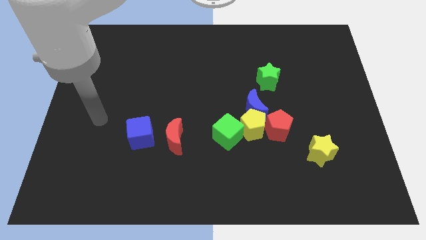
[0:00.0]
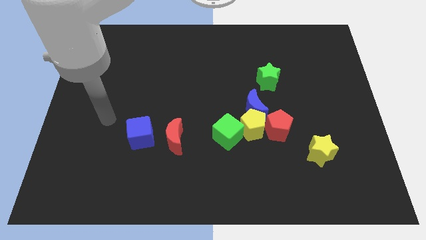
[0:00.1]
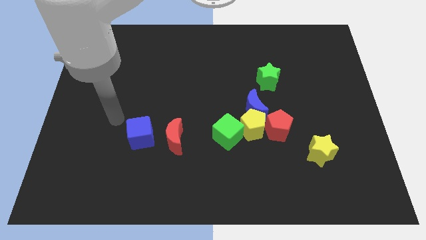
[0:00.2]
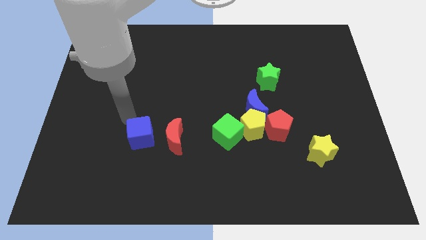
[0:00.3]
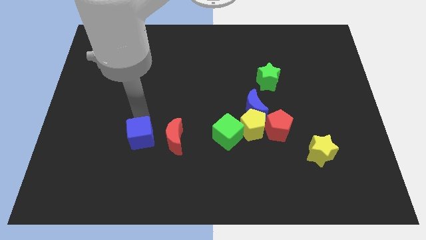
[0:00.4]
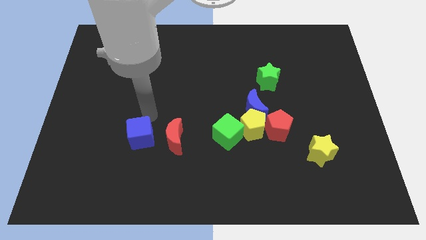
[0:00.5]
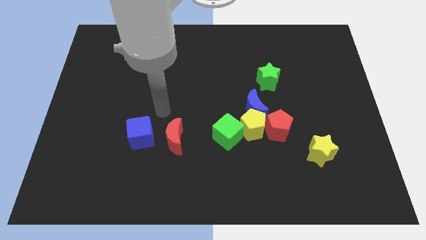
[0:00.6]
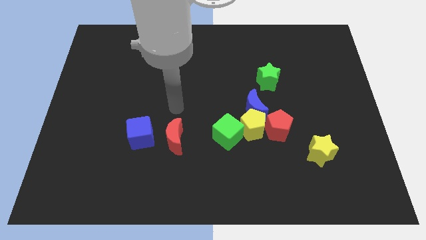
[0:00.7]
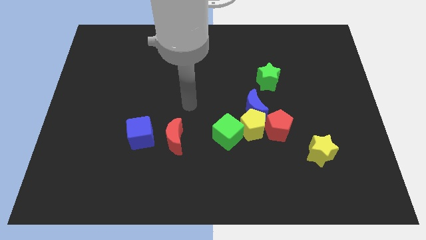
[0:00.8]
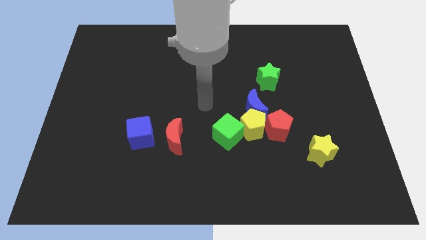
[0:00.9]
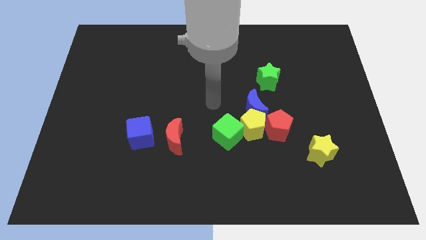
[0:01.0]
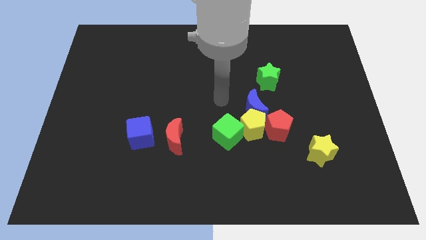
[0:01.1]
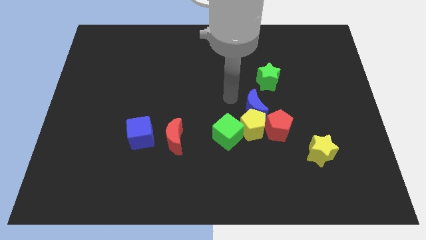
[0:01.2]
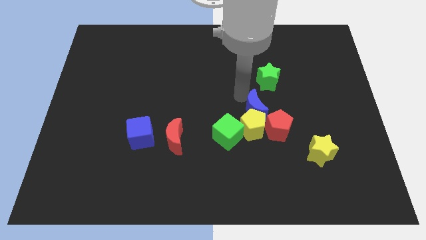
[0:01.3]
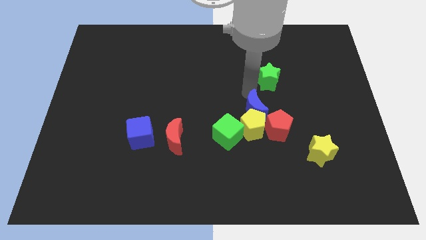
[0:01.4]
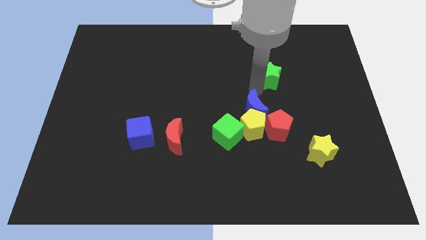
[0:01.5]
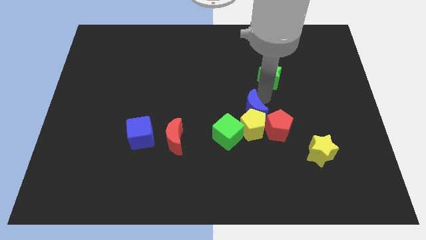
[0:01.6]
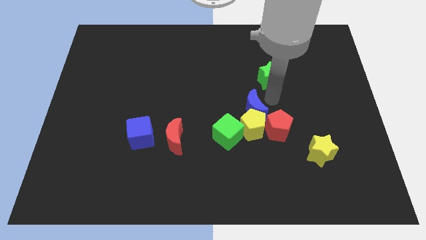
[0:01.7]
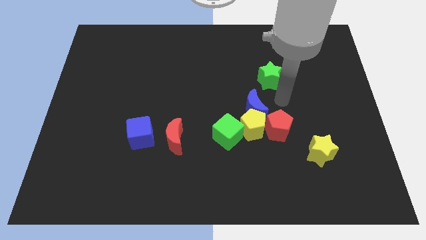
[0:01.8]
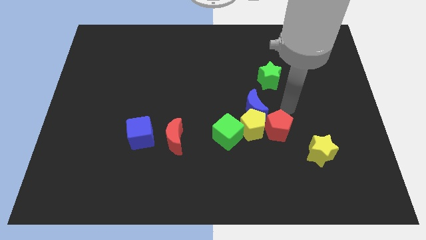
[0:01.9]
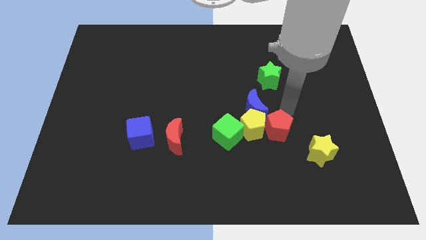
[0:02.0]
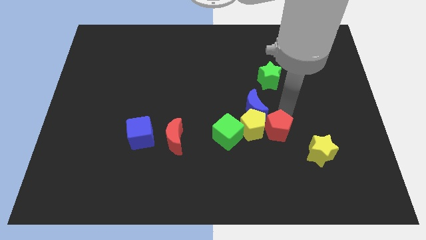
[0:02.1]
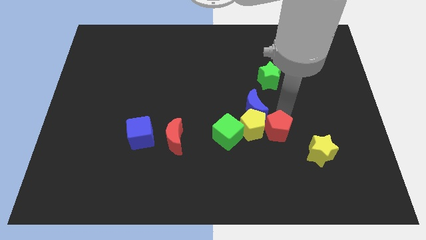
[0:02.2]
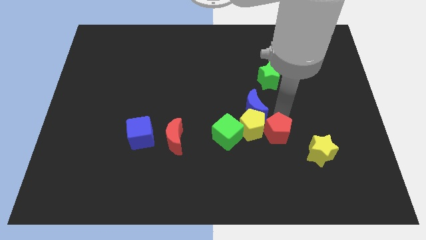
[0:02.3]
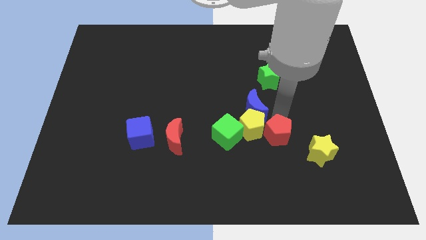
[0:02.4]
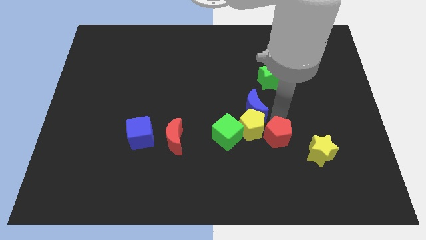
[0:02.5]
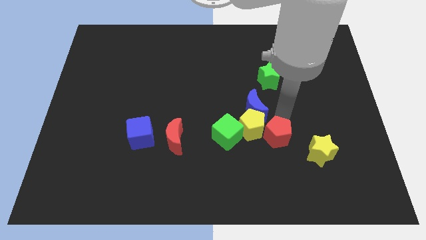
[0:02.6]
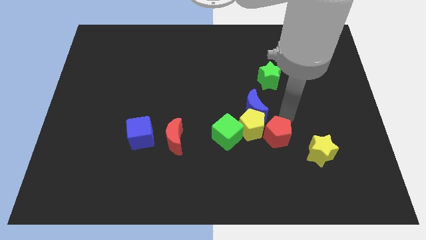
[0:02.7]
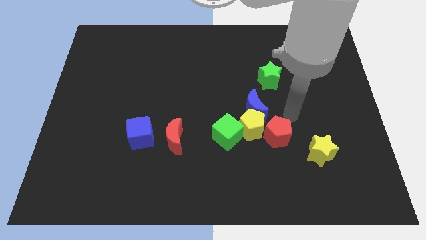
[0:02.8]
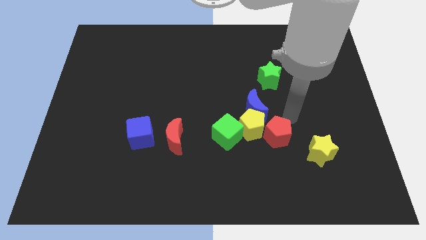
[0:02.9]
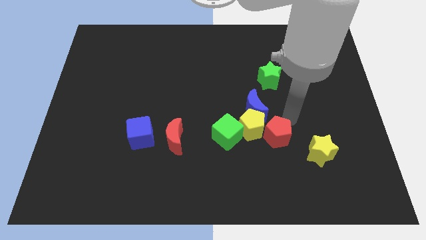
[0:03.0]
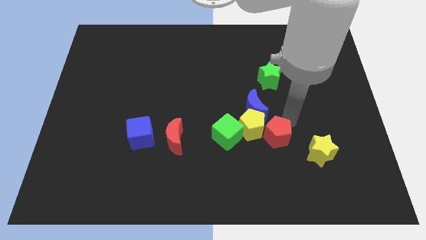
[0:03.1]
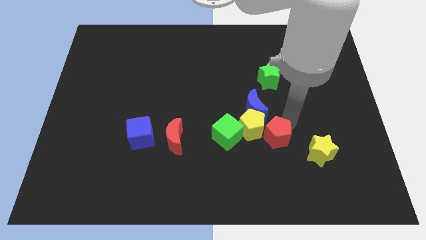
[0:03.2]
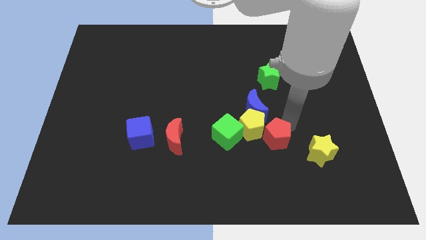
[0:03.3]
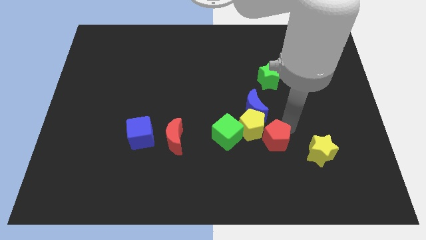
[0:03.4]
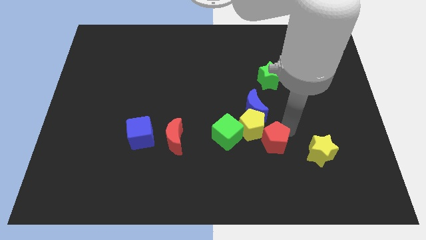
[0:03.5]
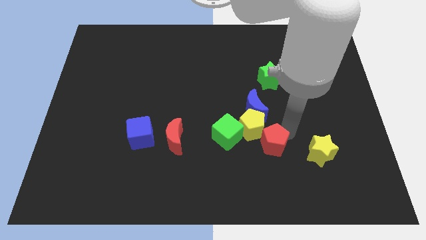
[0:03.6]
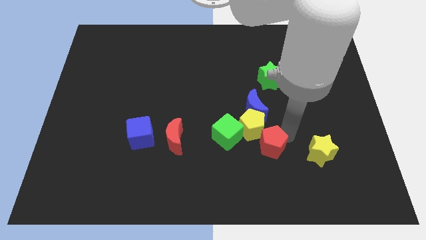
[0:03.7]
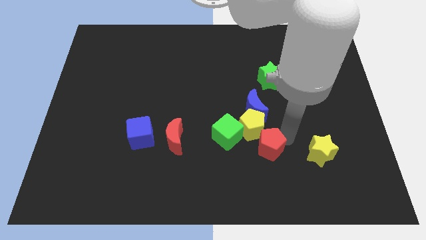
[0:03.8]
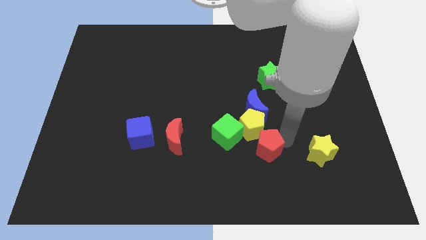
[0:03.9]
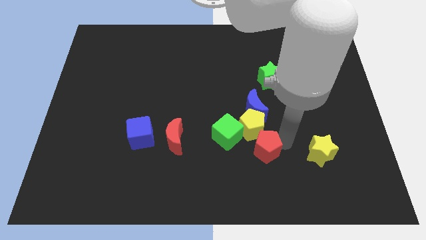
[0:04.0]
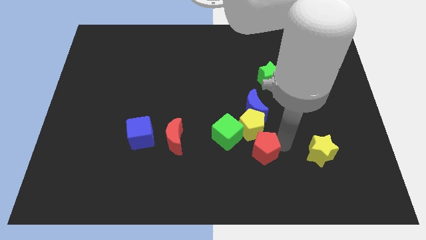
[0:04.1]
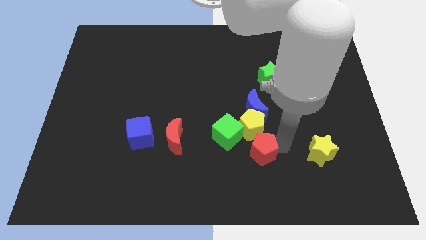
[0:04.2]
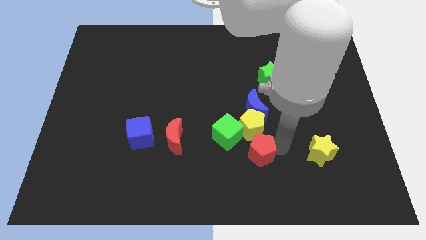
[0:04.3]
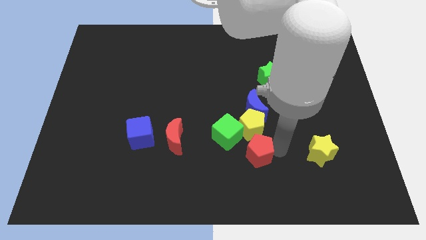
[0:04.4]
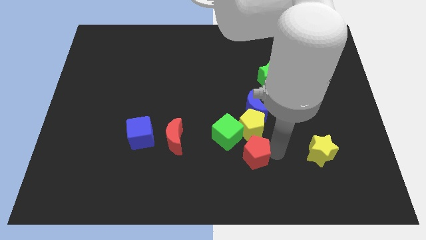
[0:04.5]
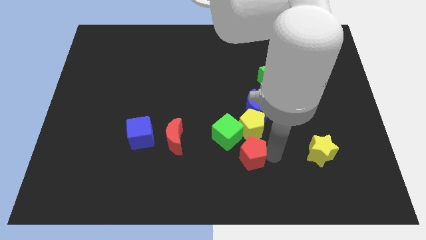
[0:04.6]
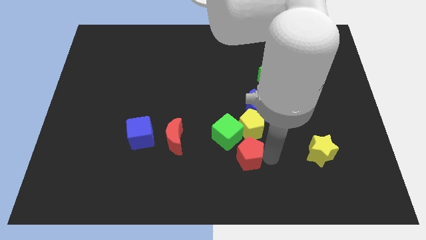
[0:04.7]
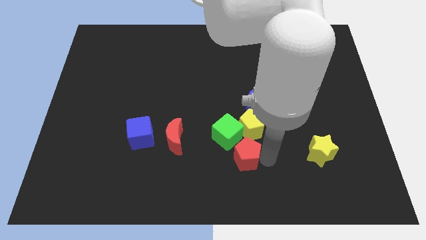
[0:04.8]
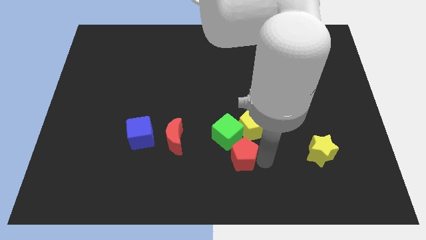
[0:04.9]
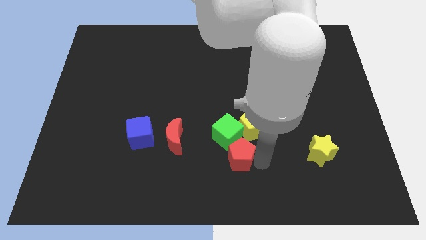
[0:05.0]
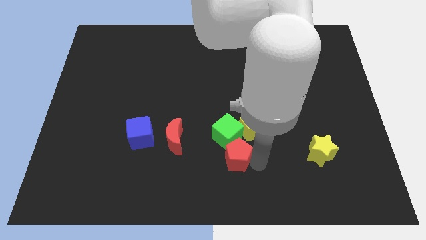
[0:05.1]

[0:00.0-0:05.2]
move the red pentagon towards the green cube

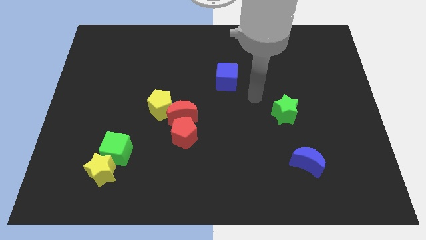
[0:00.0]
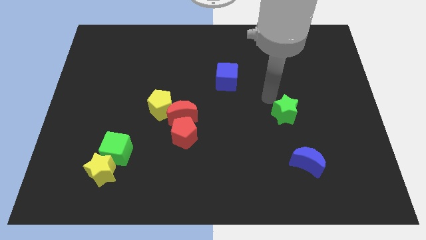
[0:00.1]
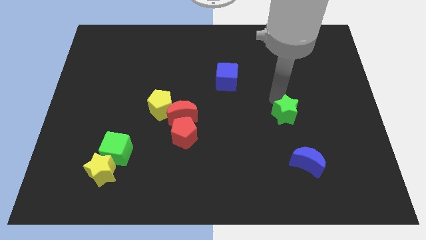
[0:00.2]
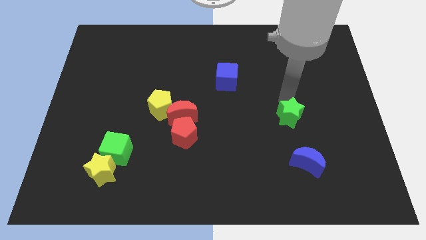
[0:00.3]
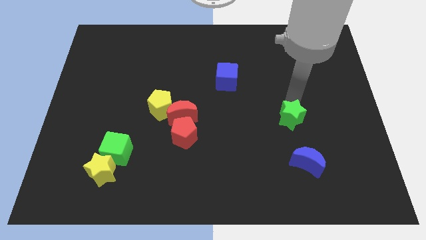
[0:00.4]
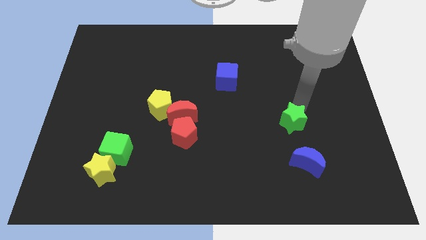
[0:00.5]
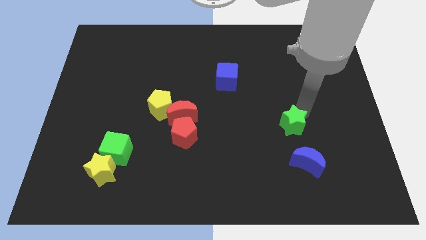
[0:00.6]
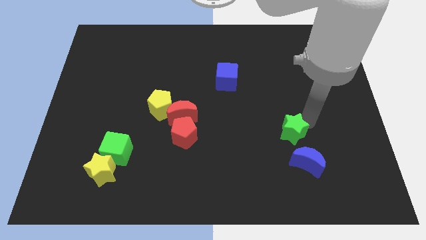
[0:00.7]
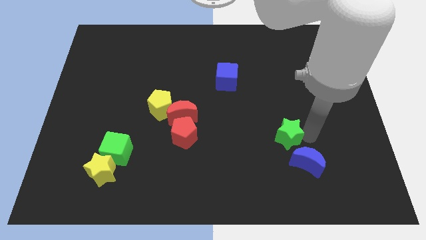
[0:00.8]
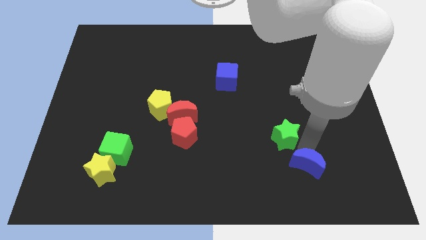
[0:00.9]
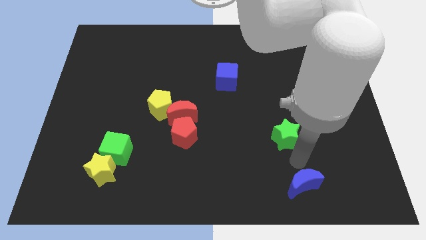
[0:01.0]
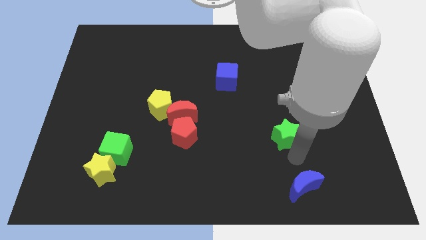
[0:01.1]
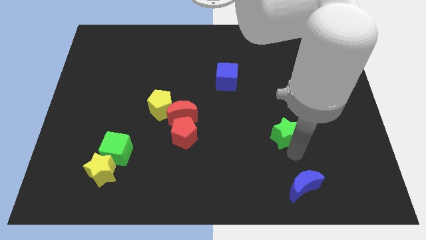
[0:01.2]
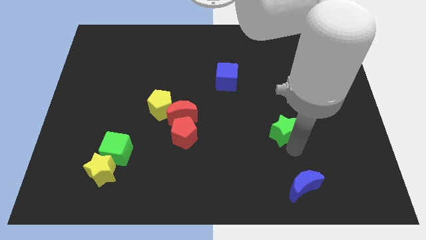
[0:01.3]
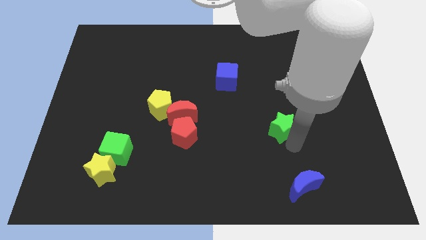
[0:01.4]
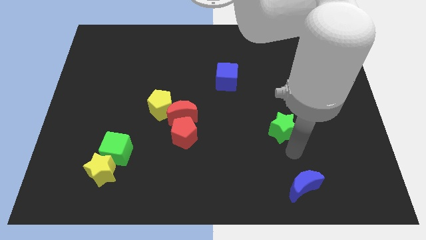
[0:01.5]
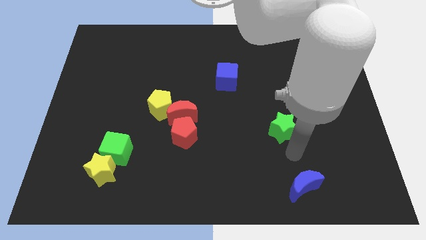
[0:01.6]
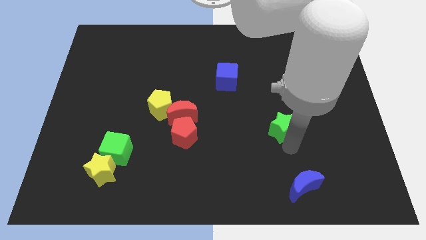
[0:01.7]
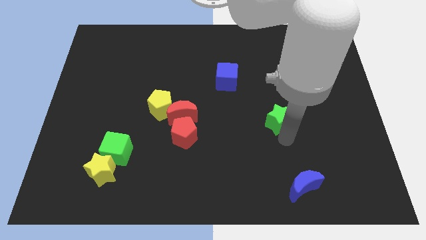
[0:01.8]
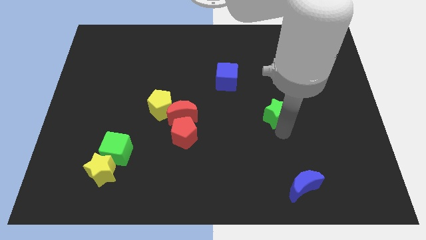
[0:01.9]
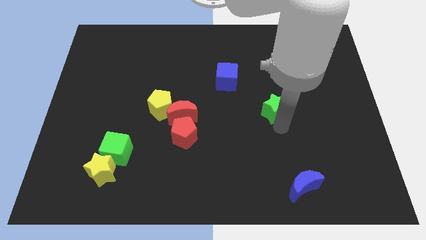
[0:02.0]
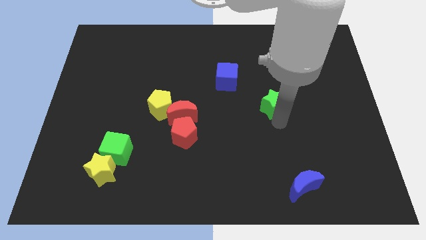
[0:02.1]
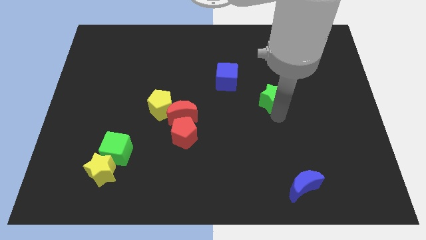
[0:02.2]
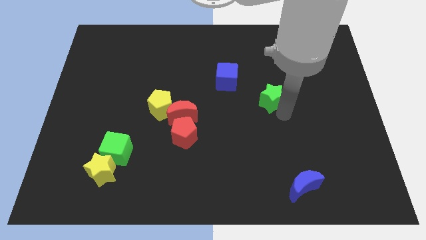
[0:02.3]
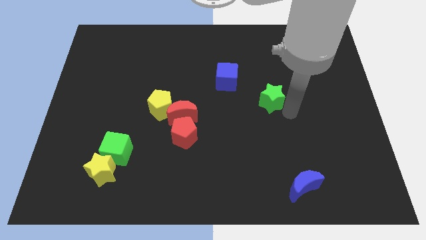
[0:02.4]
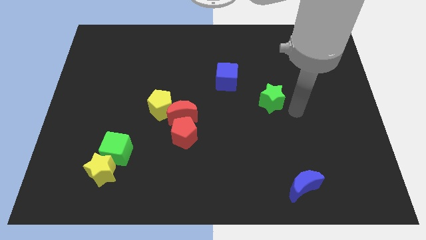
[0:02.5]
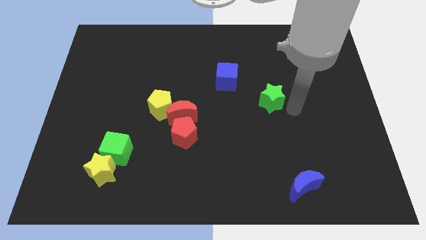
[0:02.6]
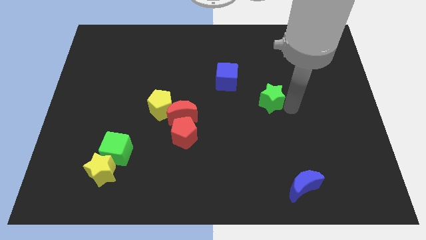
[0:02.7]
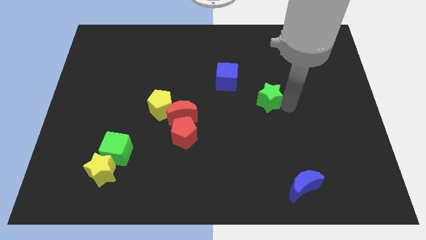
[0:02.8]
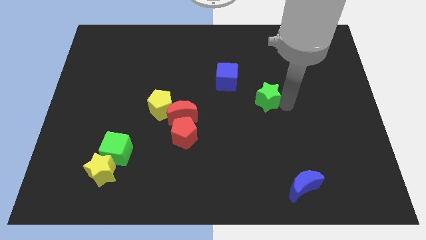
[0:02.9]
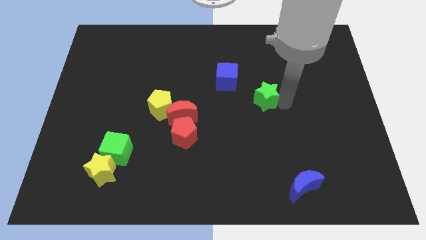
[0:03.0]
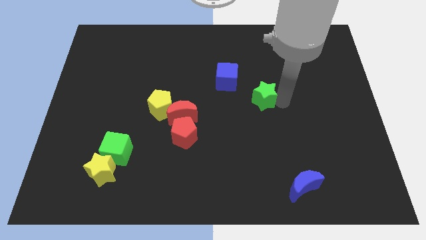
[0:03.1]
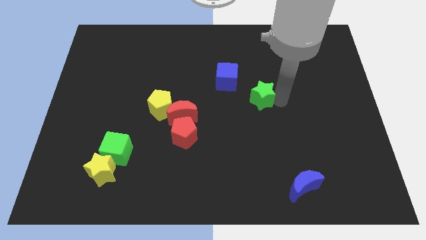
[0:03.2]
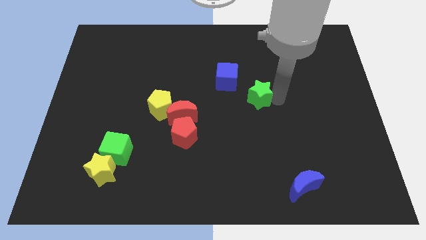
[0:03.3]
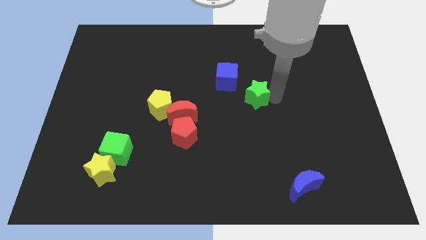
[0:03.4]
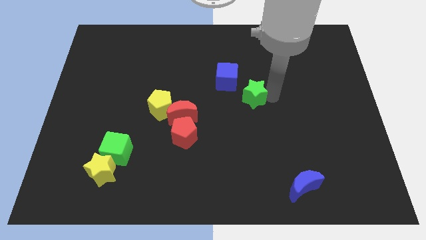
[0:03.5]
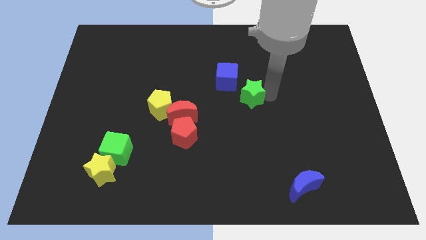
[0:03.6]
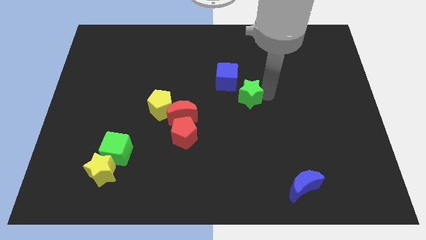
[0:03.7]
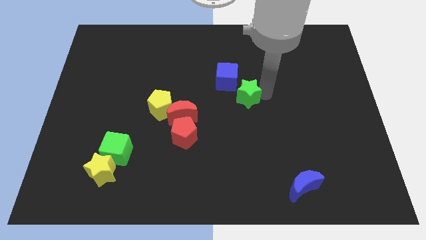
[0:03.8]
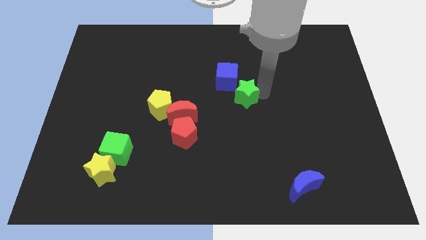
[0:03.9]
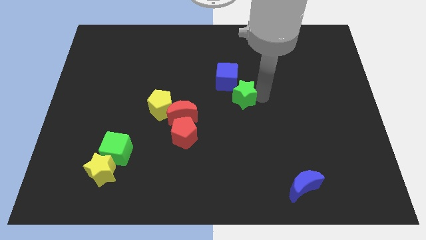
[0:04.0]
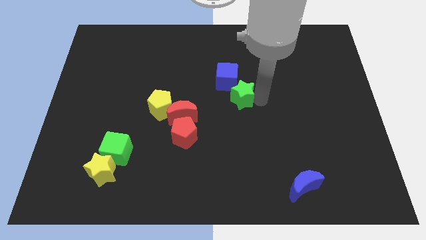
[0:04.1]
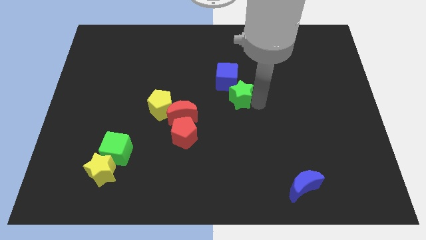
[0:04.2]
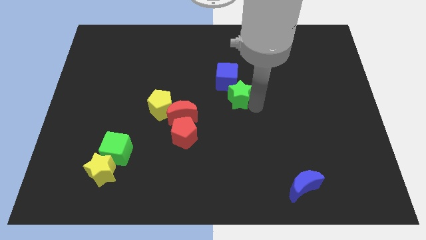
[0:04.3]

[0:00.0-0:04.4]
push the green star to the blue cube
